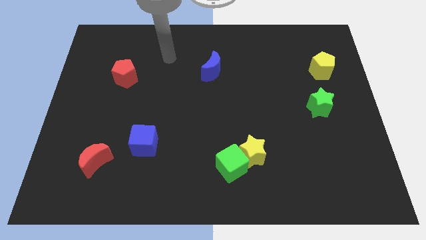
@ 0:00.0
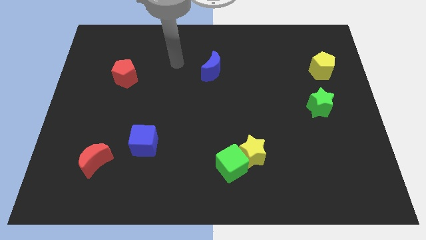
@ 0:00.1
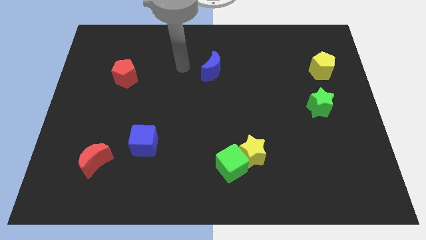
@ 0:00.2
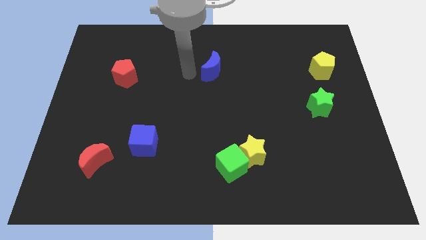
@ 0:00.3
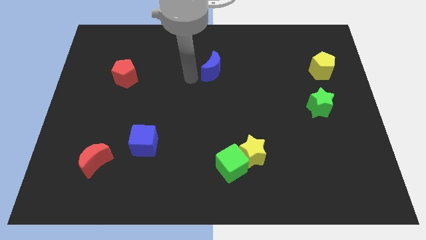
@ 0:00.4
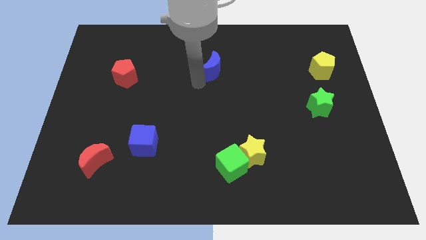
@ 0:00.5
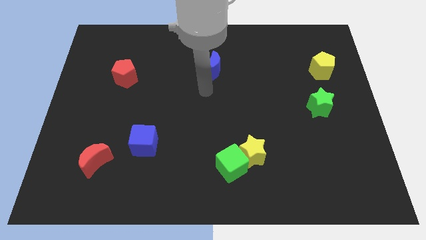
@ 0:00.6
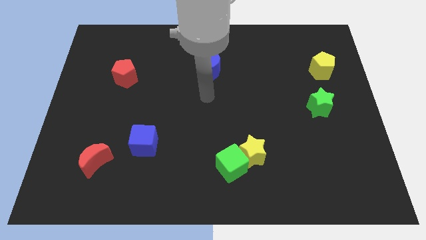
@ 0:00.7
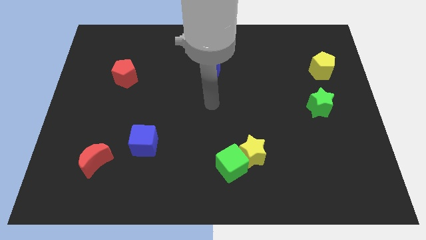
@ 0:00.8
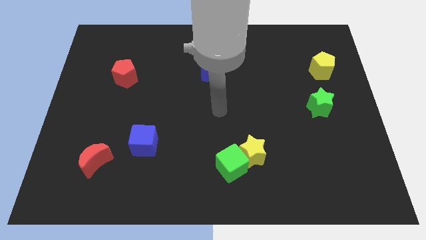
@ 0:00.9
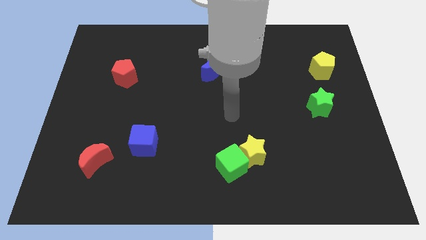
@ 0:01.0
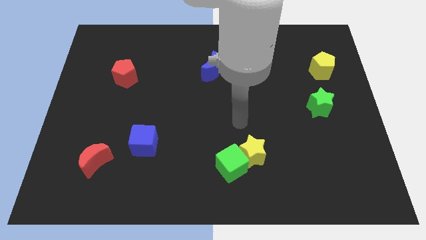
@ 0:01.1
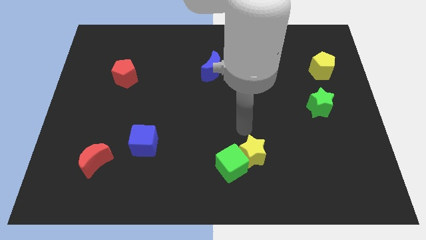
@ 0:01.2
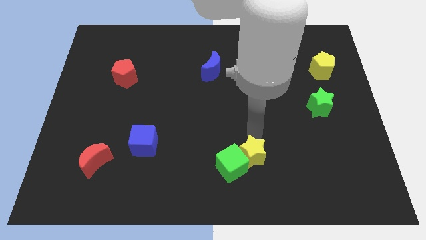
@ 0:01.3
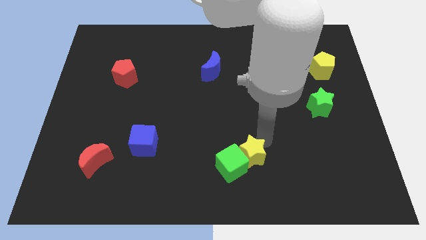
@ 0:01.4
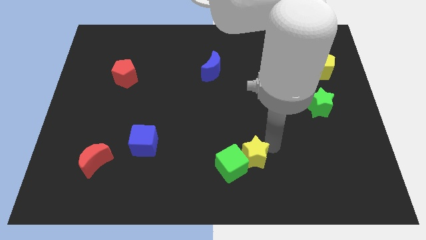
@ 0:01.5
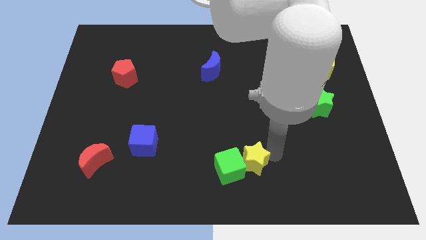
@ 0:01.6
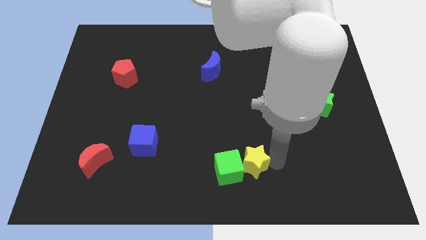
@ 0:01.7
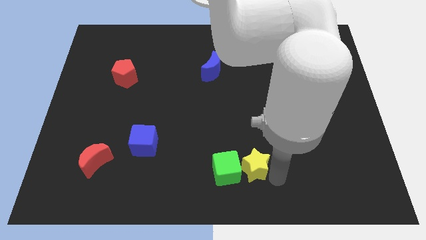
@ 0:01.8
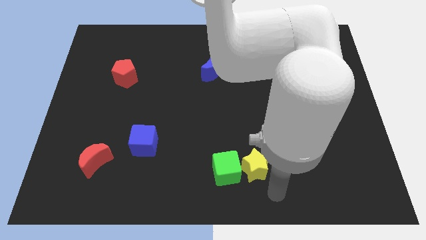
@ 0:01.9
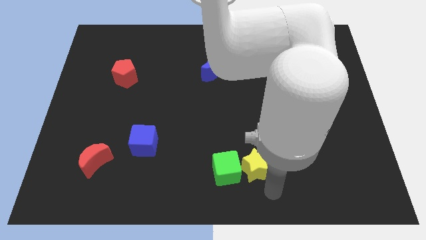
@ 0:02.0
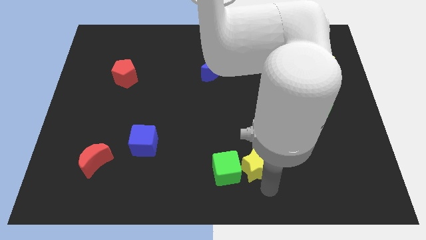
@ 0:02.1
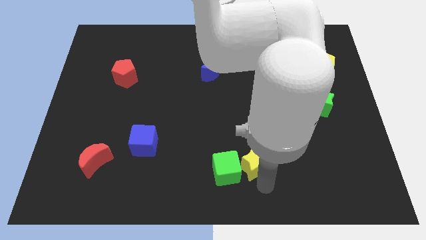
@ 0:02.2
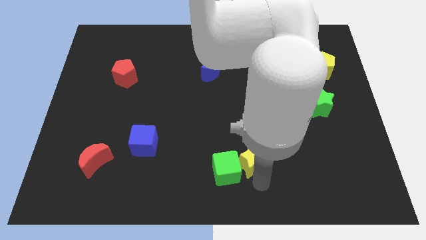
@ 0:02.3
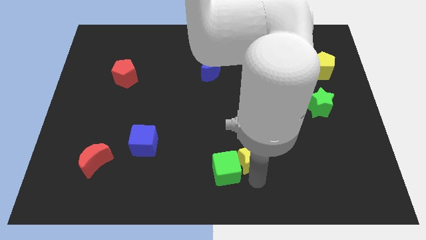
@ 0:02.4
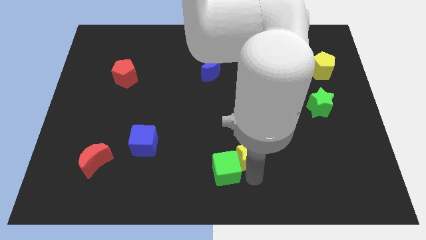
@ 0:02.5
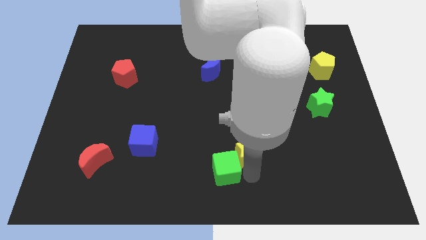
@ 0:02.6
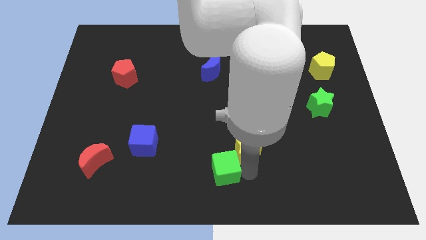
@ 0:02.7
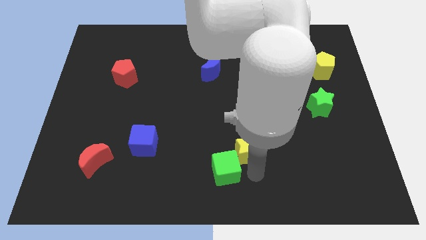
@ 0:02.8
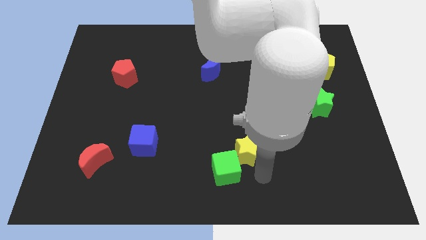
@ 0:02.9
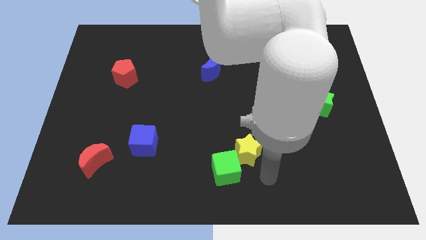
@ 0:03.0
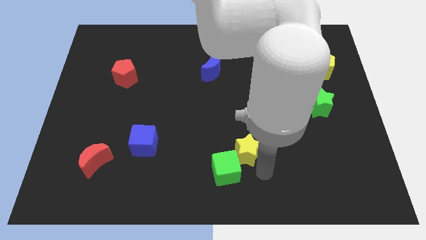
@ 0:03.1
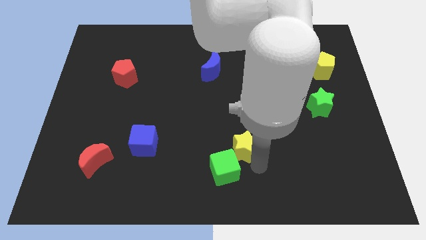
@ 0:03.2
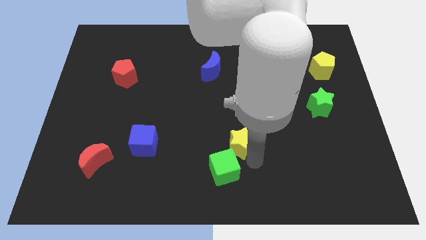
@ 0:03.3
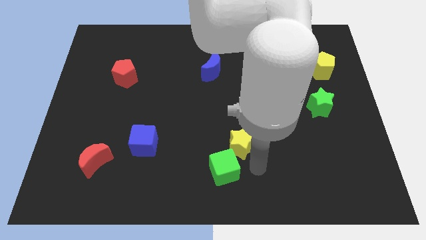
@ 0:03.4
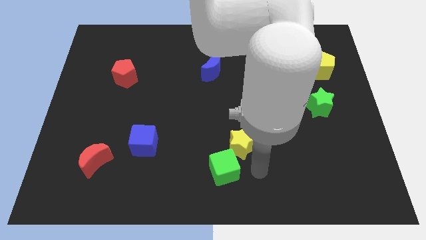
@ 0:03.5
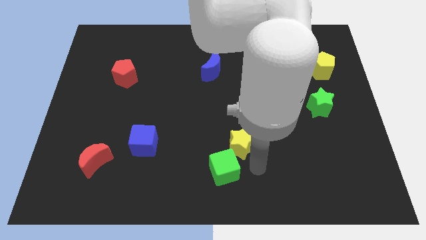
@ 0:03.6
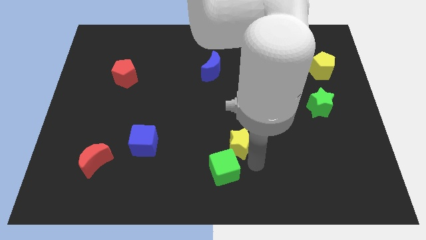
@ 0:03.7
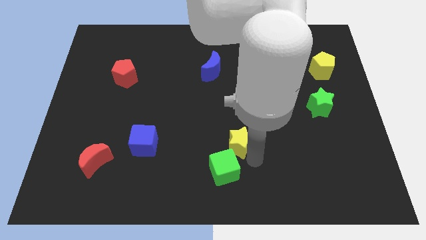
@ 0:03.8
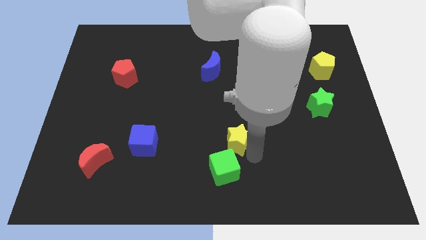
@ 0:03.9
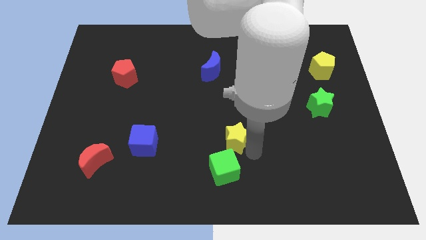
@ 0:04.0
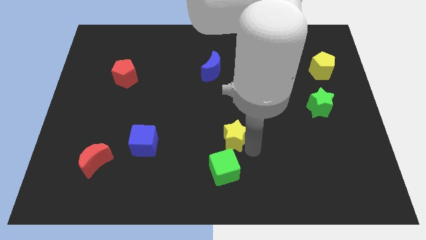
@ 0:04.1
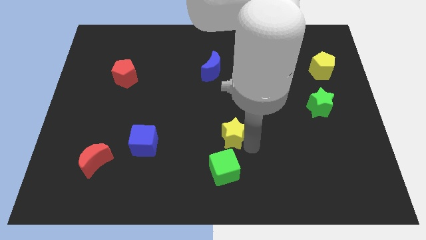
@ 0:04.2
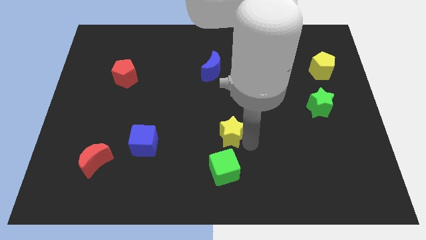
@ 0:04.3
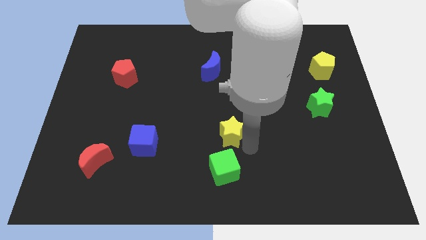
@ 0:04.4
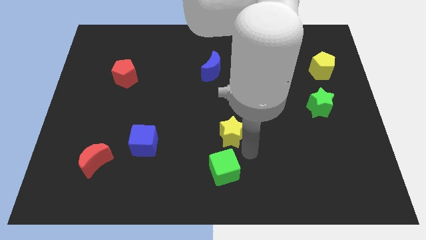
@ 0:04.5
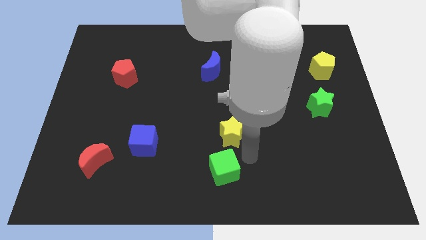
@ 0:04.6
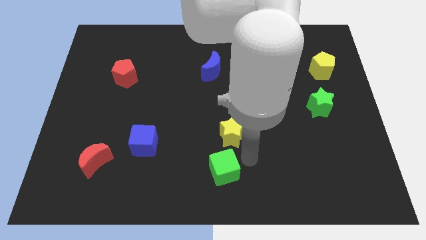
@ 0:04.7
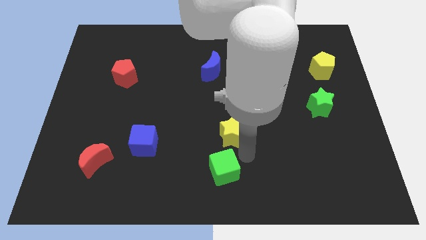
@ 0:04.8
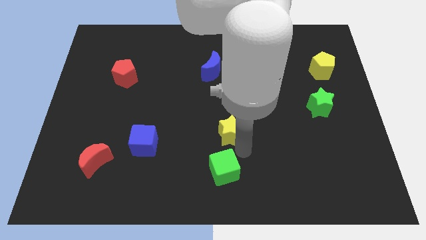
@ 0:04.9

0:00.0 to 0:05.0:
slightly push the yellow star diagonally upwards and to the left

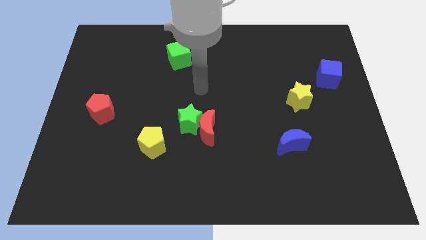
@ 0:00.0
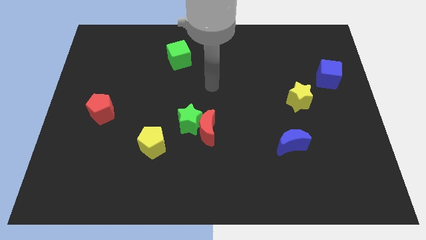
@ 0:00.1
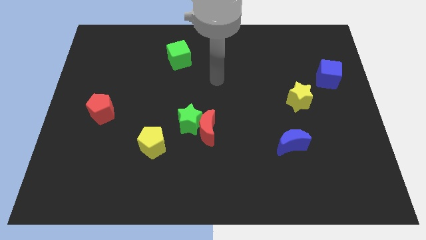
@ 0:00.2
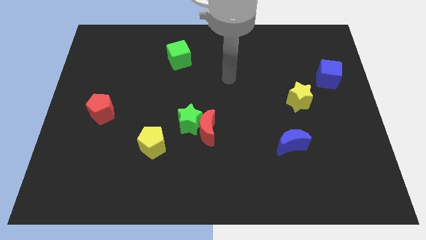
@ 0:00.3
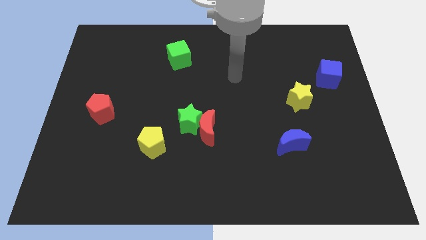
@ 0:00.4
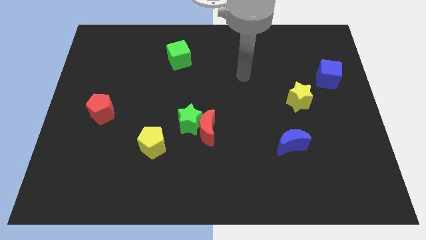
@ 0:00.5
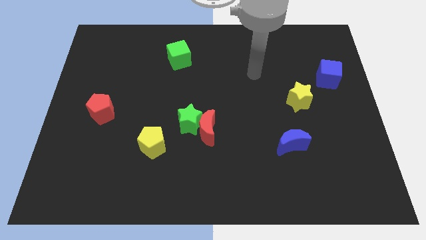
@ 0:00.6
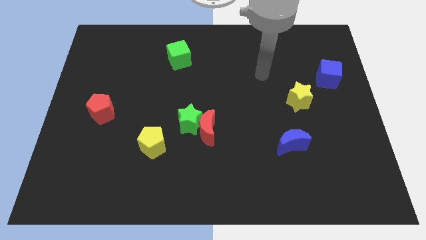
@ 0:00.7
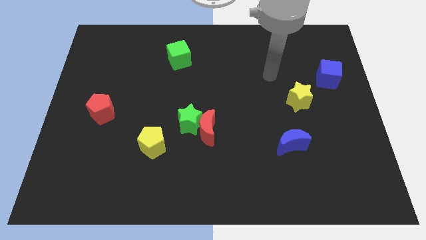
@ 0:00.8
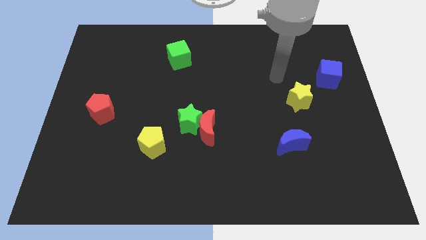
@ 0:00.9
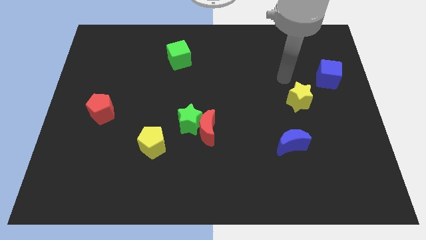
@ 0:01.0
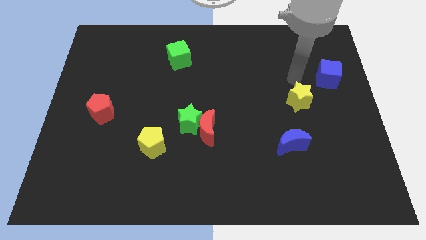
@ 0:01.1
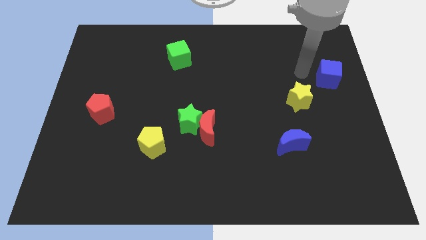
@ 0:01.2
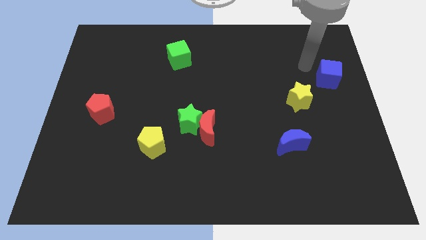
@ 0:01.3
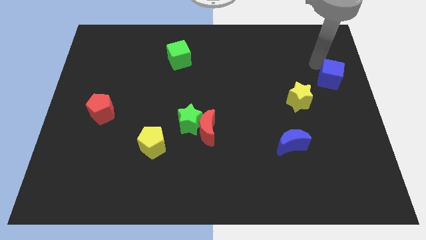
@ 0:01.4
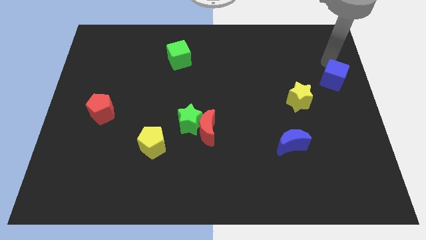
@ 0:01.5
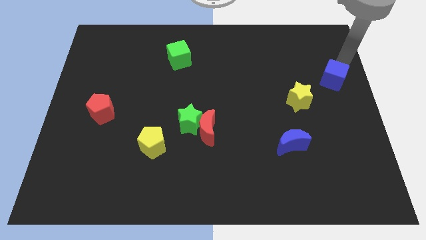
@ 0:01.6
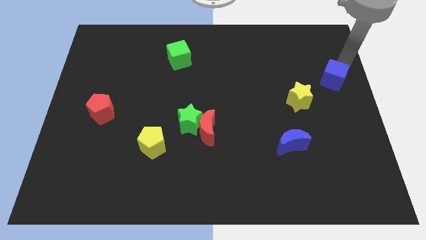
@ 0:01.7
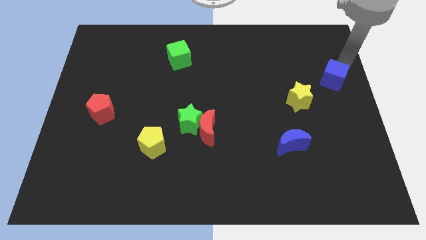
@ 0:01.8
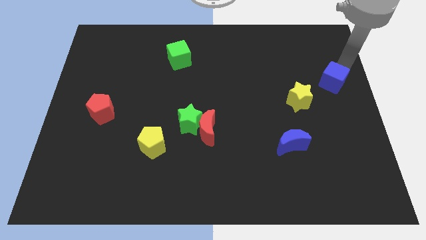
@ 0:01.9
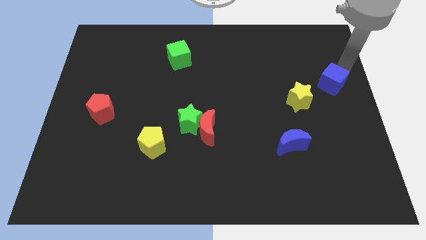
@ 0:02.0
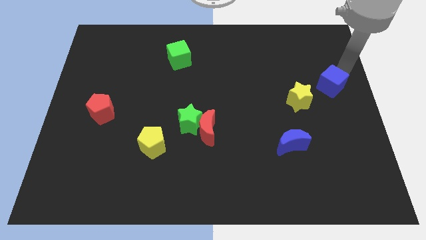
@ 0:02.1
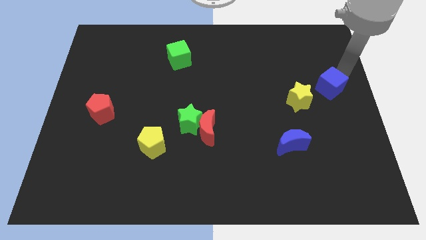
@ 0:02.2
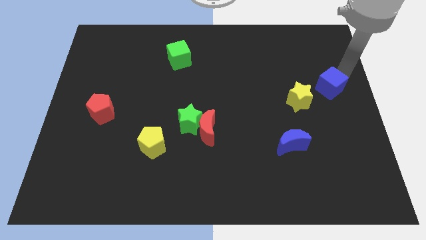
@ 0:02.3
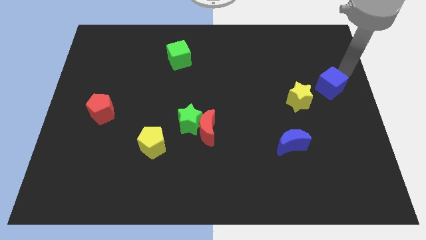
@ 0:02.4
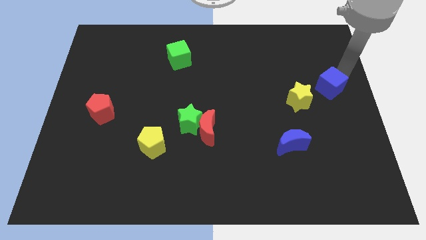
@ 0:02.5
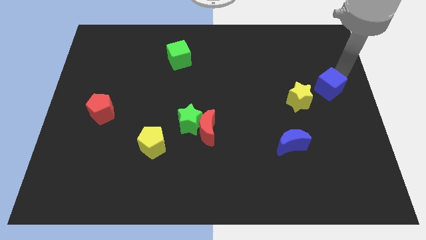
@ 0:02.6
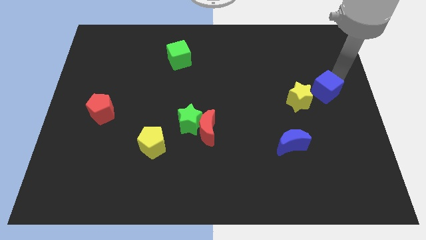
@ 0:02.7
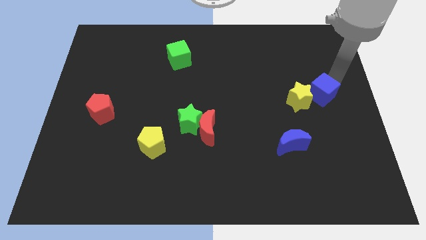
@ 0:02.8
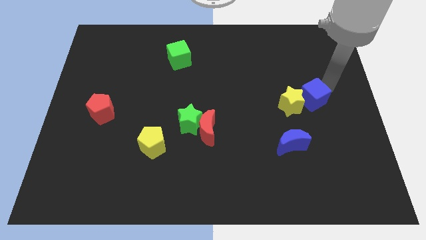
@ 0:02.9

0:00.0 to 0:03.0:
slightly move the blue cube down and left

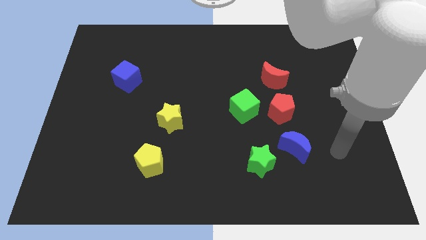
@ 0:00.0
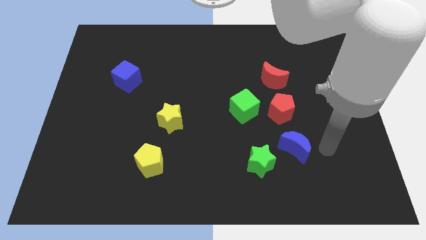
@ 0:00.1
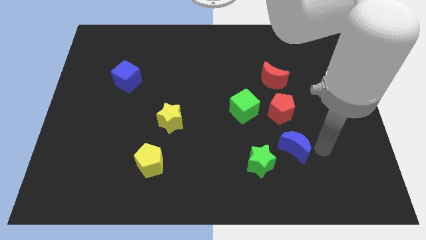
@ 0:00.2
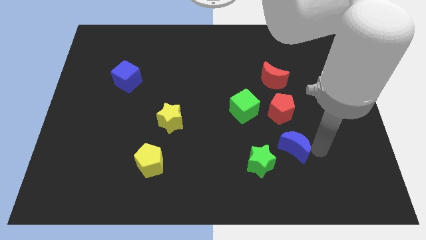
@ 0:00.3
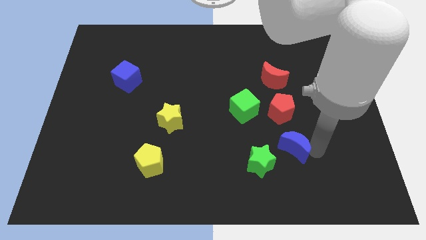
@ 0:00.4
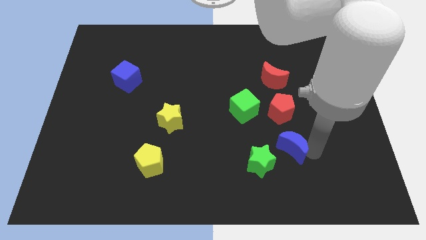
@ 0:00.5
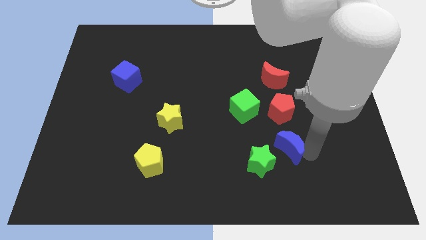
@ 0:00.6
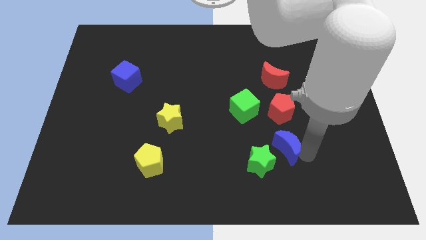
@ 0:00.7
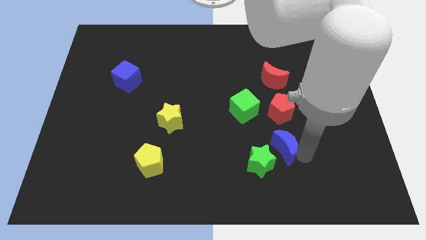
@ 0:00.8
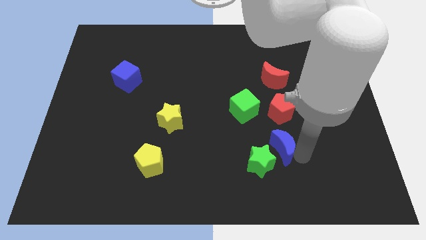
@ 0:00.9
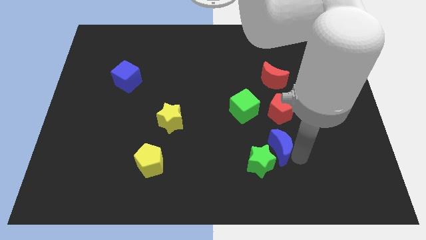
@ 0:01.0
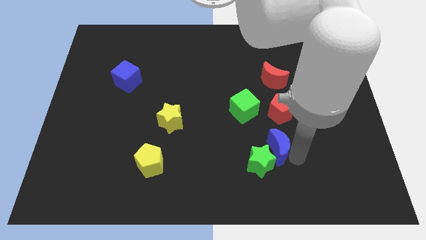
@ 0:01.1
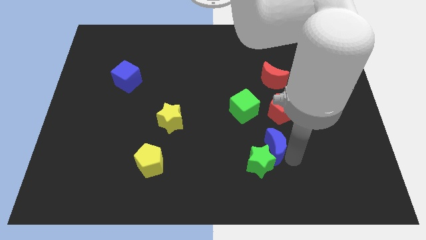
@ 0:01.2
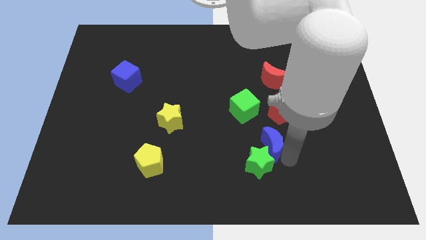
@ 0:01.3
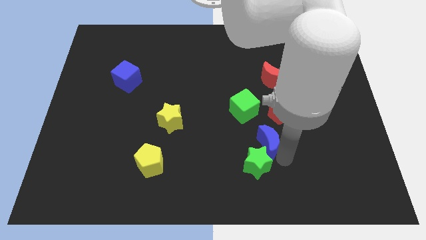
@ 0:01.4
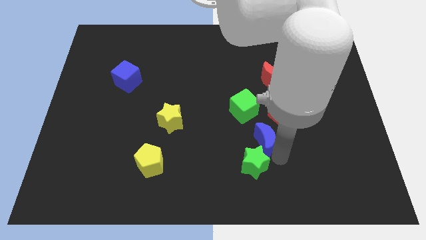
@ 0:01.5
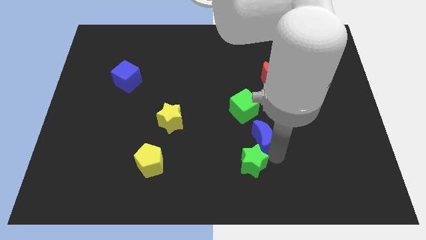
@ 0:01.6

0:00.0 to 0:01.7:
push the blue moon left a bit
